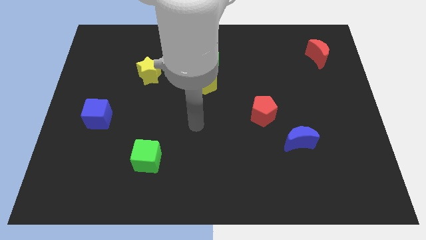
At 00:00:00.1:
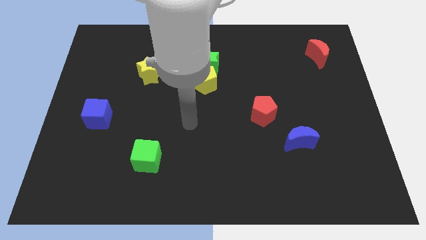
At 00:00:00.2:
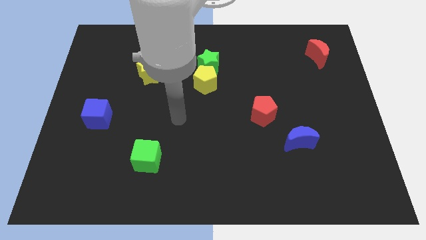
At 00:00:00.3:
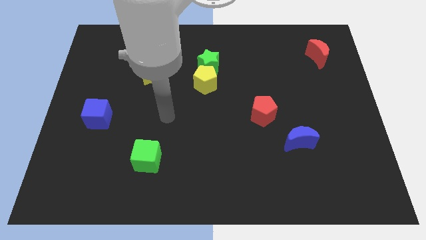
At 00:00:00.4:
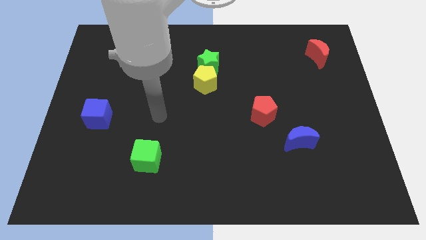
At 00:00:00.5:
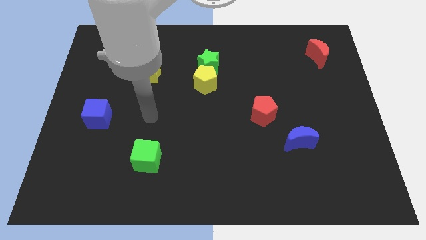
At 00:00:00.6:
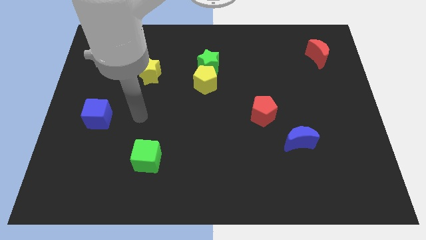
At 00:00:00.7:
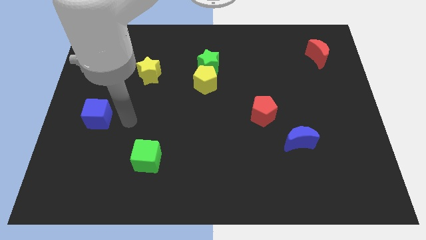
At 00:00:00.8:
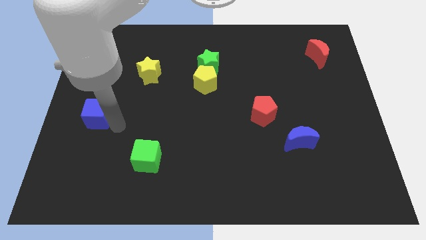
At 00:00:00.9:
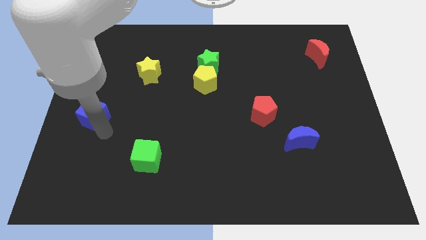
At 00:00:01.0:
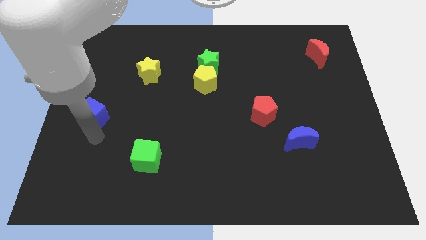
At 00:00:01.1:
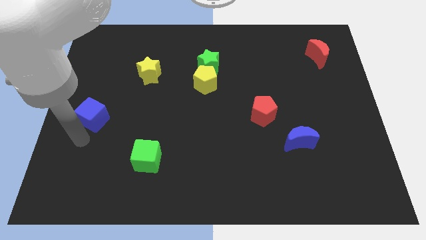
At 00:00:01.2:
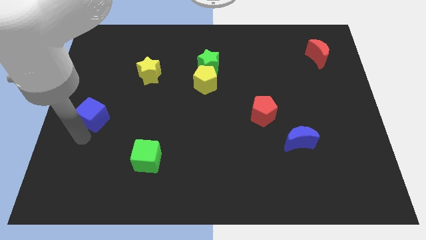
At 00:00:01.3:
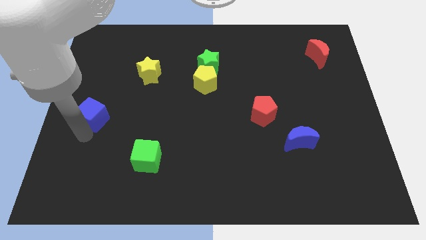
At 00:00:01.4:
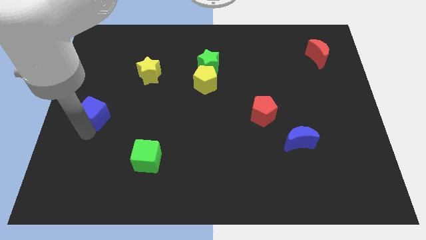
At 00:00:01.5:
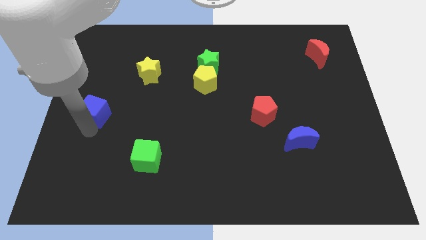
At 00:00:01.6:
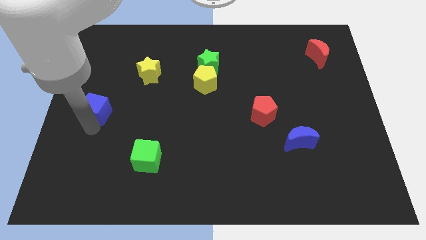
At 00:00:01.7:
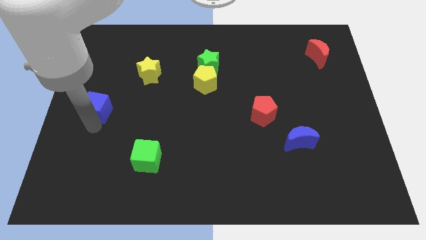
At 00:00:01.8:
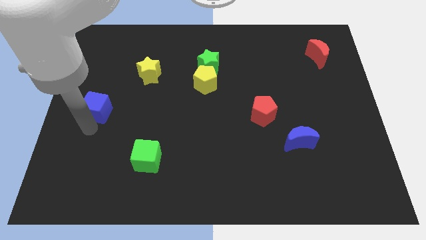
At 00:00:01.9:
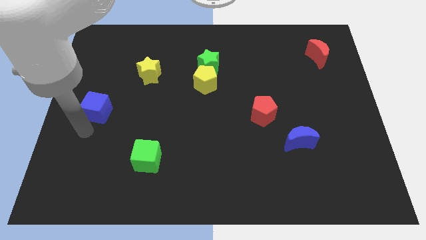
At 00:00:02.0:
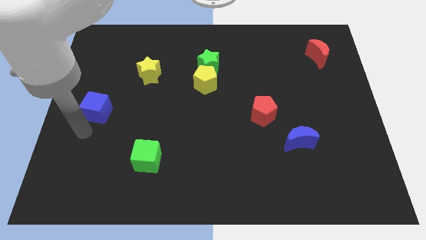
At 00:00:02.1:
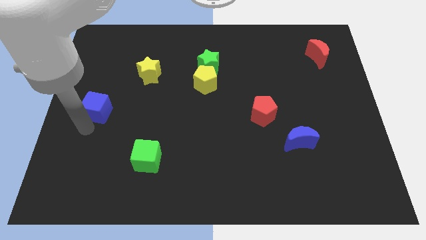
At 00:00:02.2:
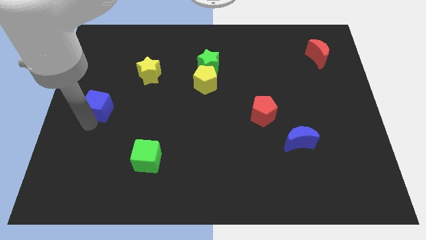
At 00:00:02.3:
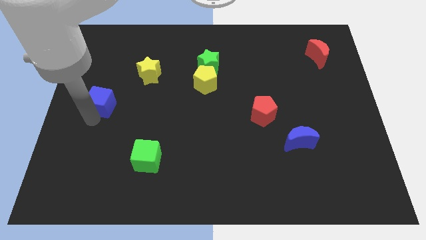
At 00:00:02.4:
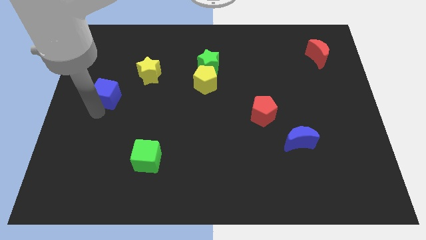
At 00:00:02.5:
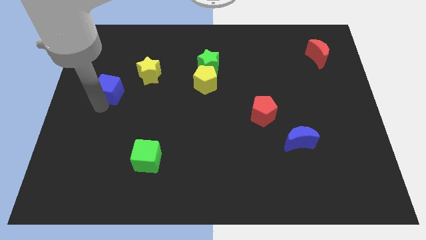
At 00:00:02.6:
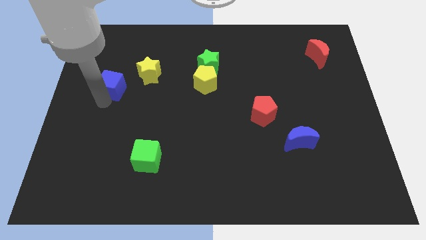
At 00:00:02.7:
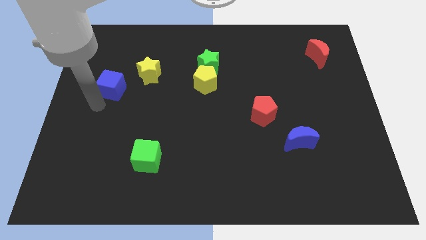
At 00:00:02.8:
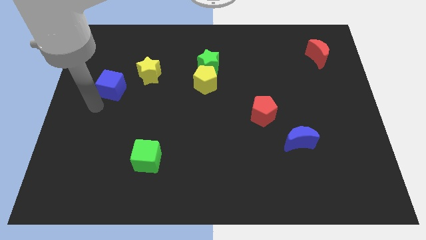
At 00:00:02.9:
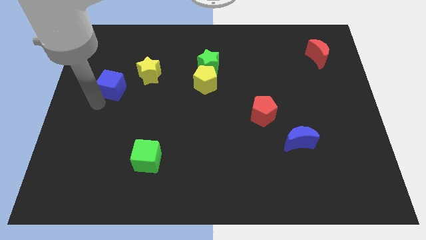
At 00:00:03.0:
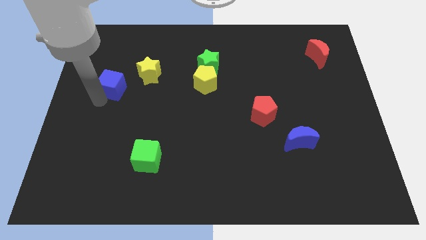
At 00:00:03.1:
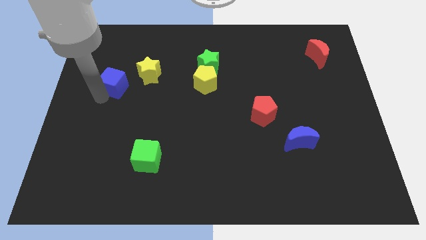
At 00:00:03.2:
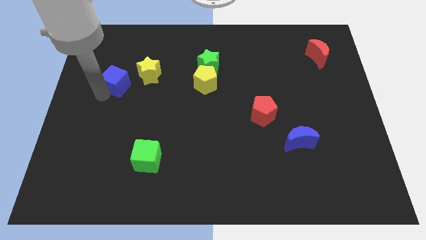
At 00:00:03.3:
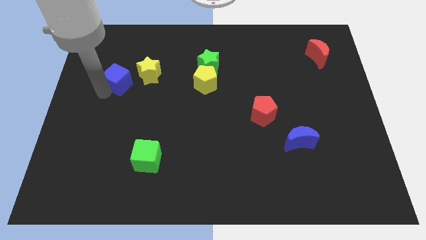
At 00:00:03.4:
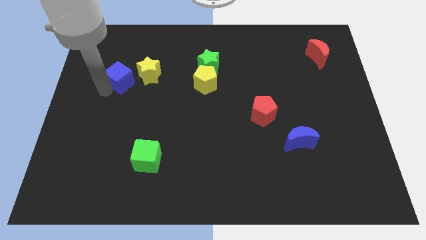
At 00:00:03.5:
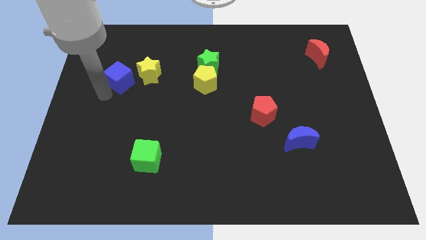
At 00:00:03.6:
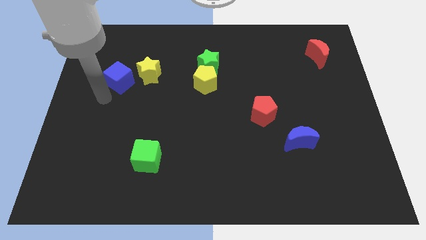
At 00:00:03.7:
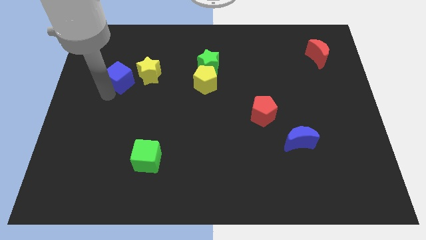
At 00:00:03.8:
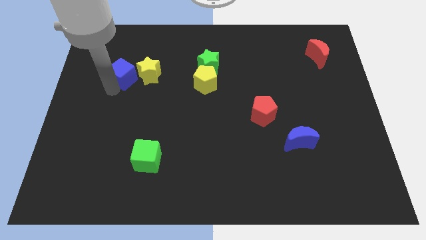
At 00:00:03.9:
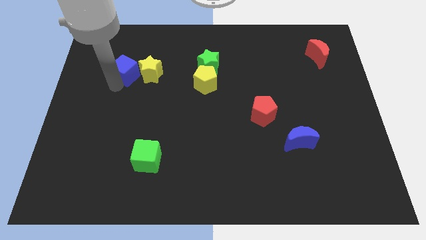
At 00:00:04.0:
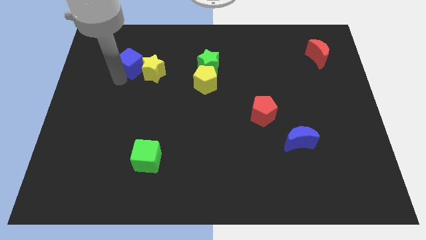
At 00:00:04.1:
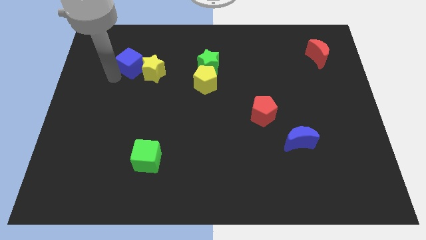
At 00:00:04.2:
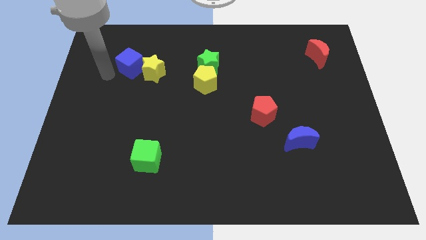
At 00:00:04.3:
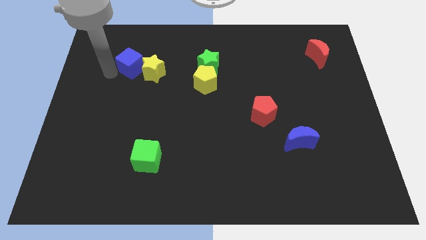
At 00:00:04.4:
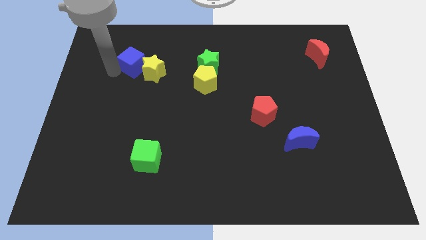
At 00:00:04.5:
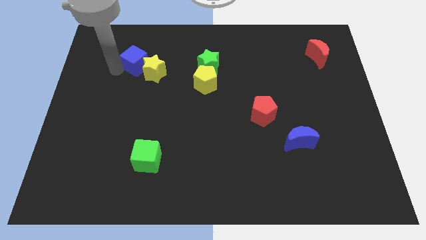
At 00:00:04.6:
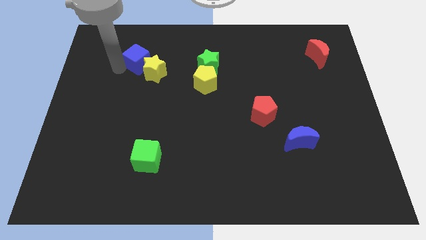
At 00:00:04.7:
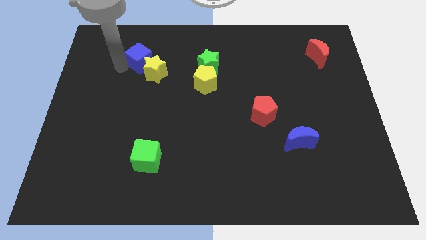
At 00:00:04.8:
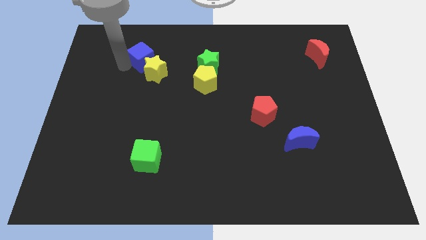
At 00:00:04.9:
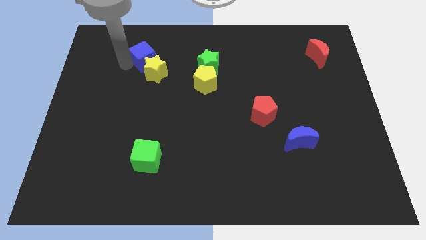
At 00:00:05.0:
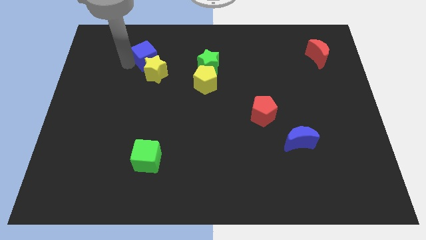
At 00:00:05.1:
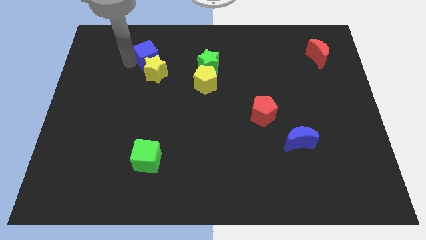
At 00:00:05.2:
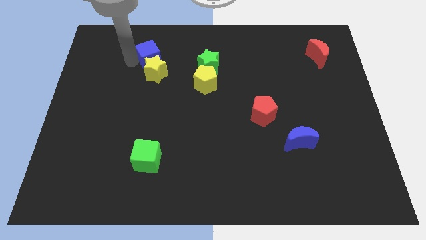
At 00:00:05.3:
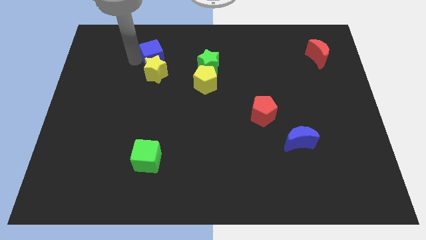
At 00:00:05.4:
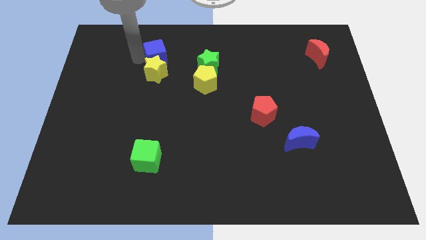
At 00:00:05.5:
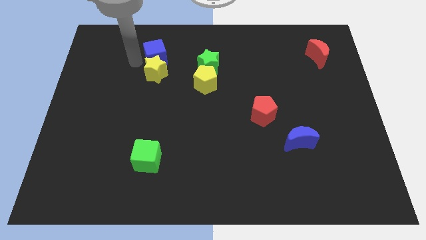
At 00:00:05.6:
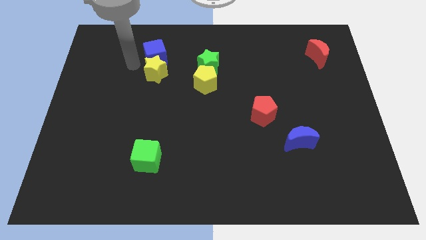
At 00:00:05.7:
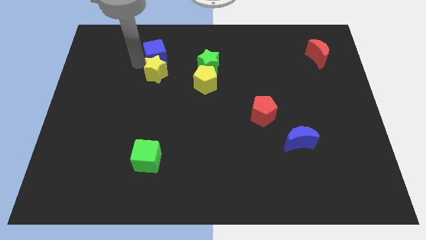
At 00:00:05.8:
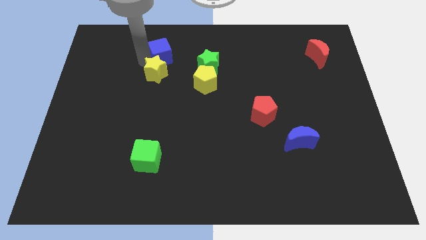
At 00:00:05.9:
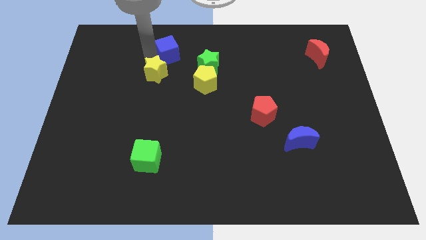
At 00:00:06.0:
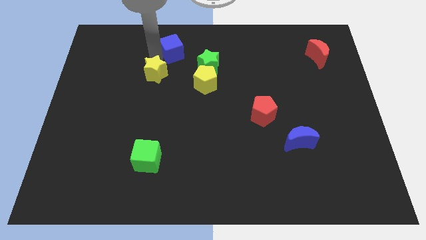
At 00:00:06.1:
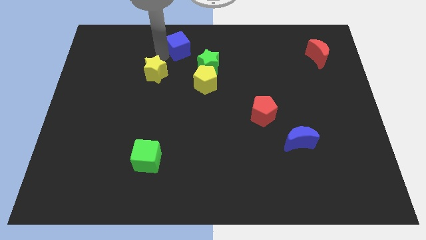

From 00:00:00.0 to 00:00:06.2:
slide the blue cube to the top side

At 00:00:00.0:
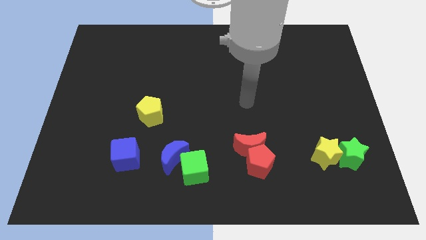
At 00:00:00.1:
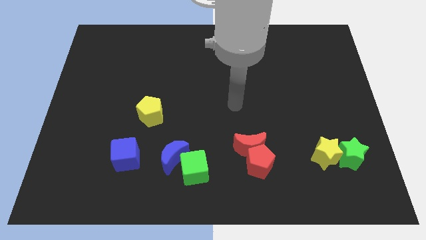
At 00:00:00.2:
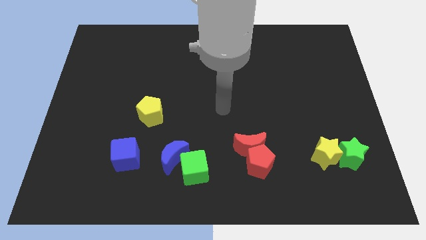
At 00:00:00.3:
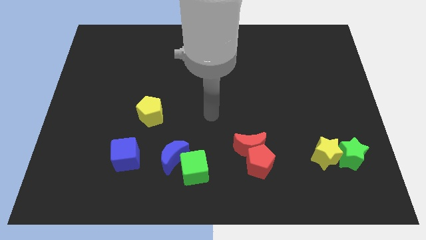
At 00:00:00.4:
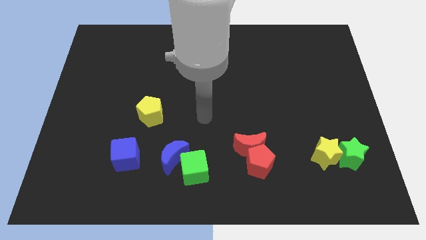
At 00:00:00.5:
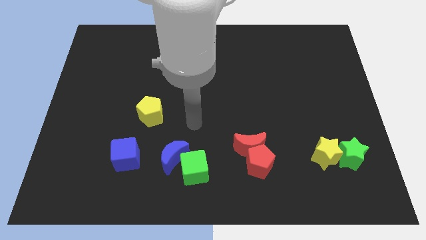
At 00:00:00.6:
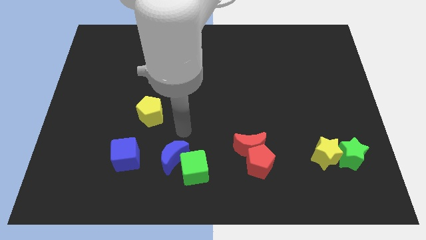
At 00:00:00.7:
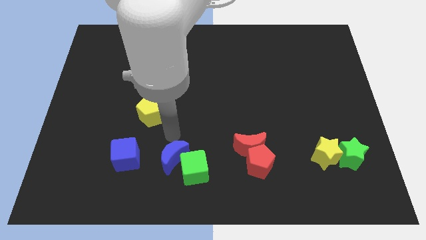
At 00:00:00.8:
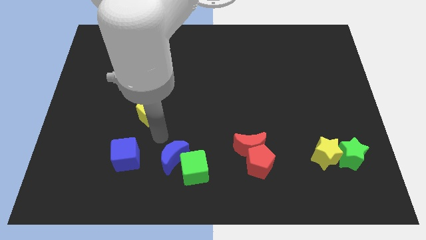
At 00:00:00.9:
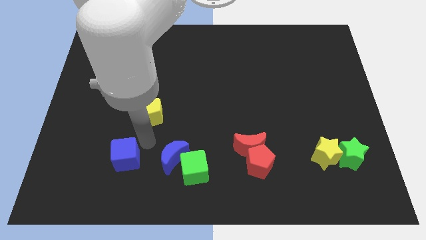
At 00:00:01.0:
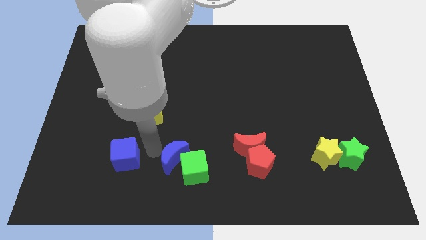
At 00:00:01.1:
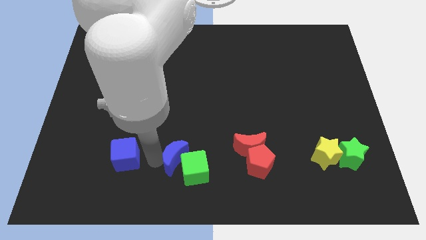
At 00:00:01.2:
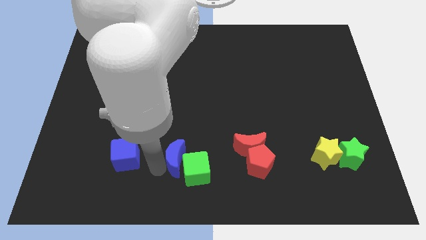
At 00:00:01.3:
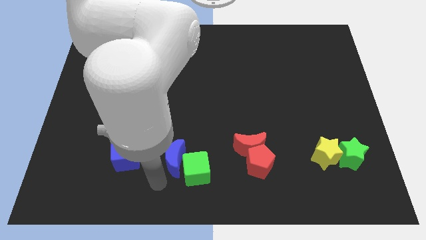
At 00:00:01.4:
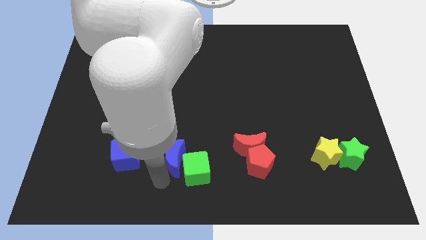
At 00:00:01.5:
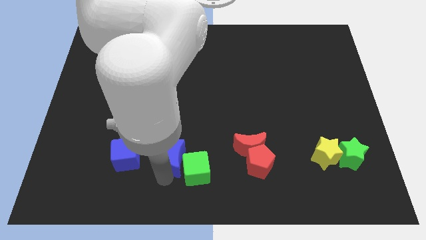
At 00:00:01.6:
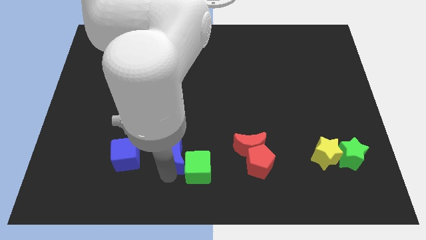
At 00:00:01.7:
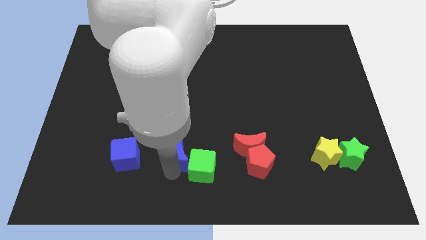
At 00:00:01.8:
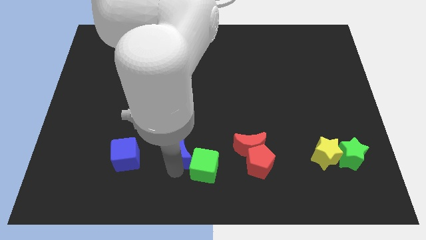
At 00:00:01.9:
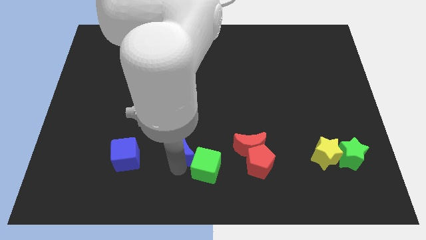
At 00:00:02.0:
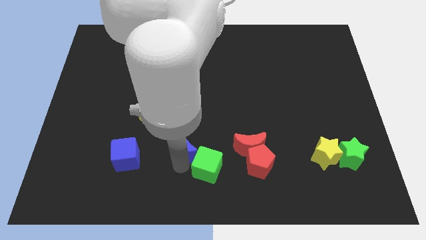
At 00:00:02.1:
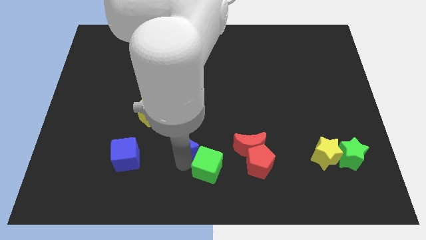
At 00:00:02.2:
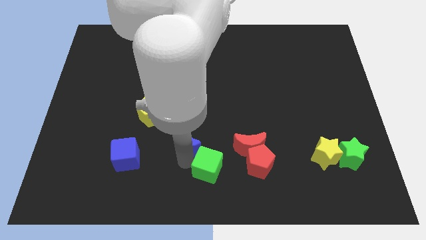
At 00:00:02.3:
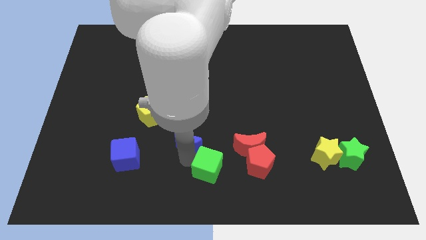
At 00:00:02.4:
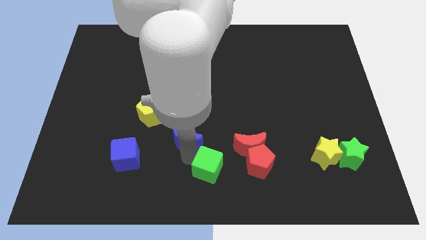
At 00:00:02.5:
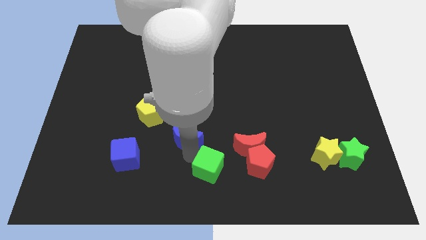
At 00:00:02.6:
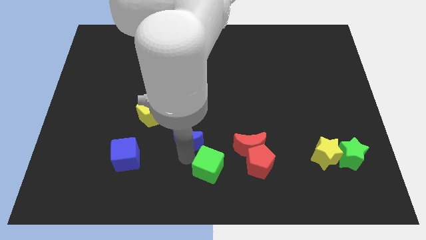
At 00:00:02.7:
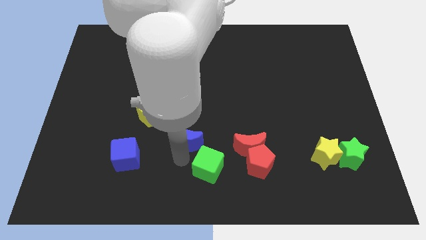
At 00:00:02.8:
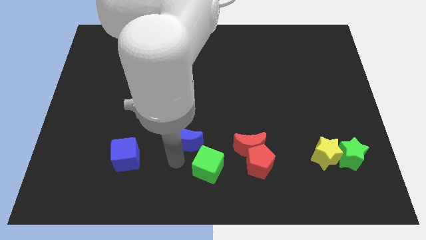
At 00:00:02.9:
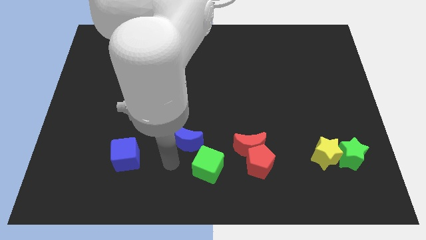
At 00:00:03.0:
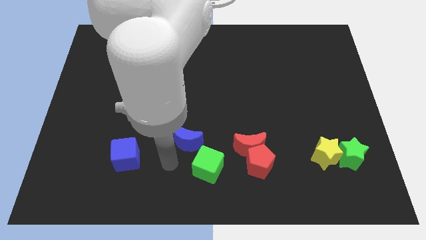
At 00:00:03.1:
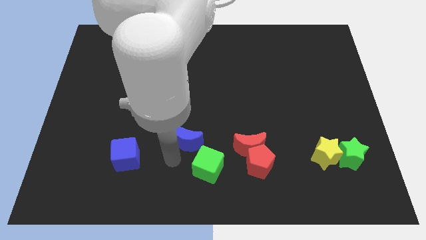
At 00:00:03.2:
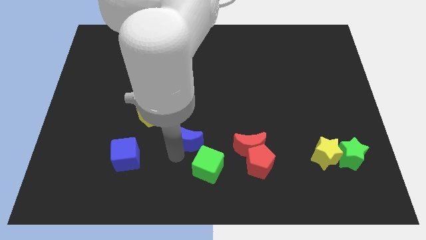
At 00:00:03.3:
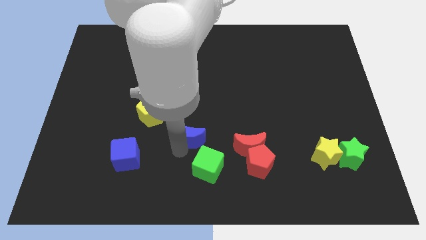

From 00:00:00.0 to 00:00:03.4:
put the blue moon to the middle
